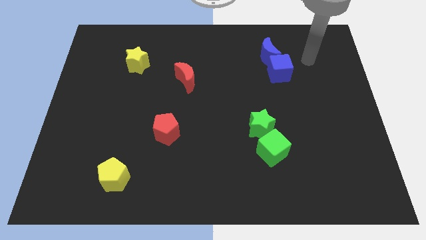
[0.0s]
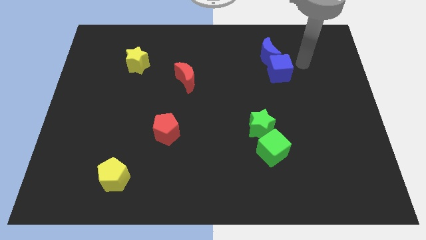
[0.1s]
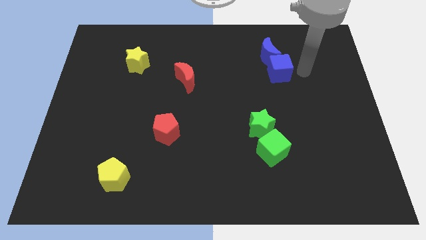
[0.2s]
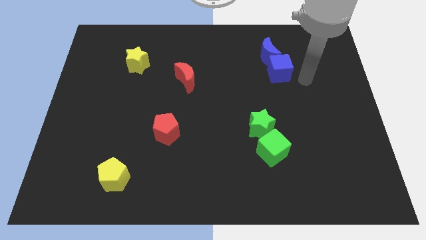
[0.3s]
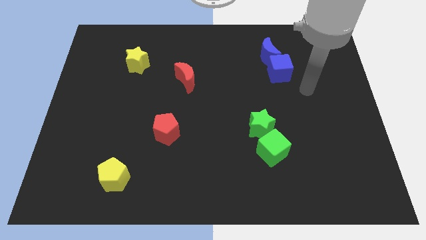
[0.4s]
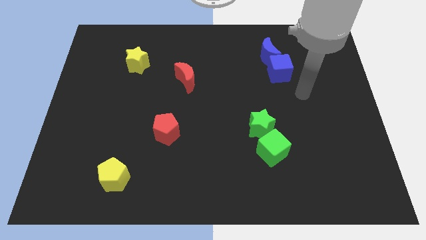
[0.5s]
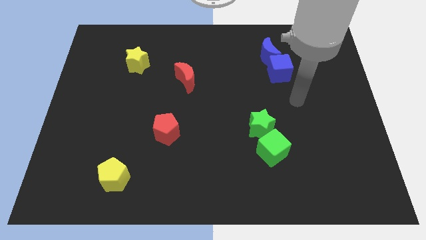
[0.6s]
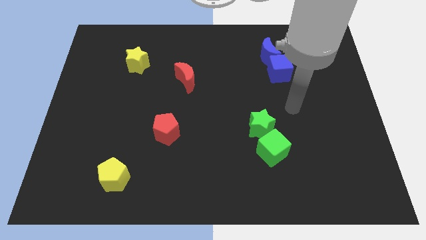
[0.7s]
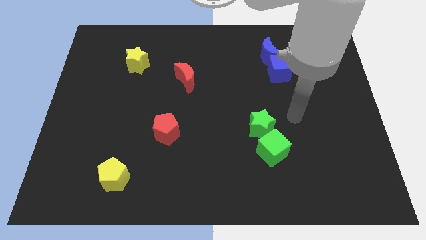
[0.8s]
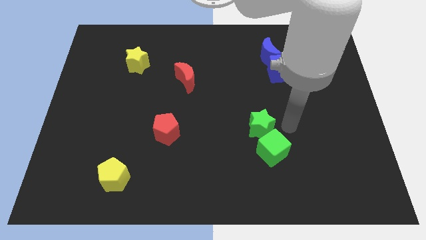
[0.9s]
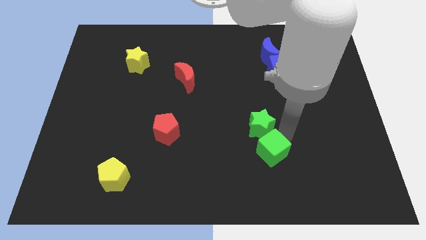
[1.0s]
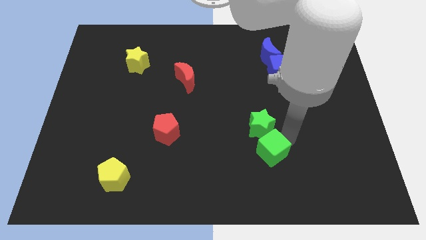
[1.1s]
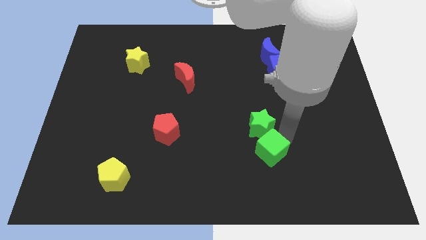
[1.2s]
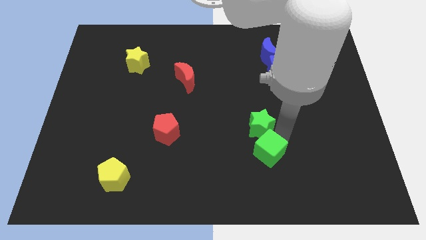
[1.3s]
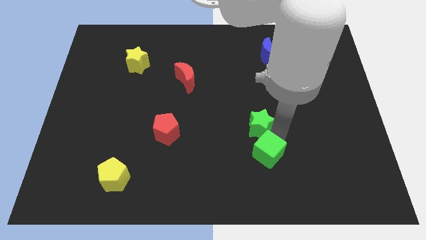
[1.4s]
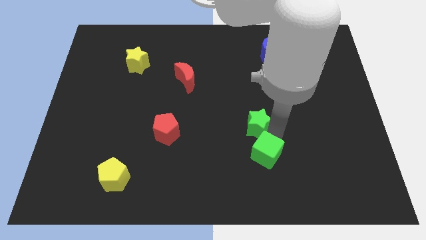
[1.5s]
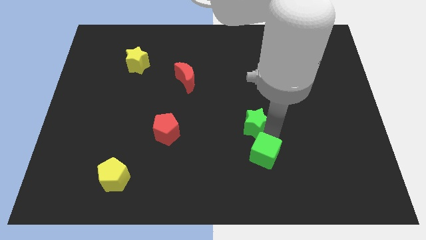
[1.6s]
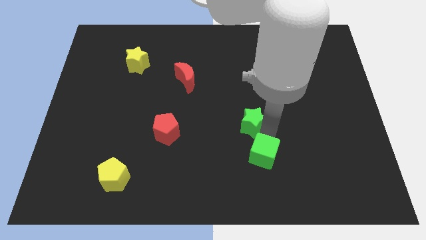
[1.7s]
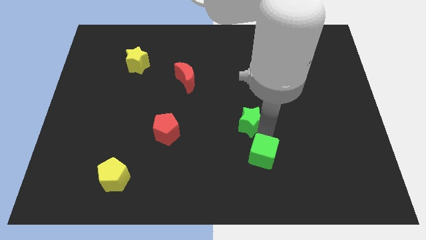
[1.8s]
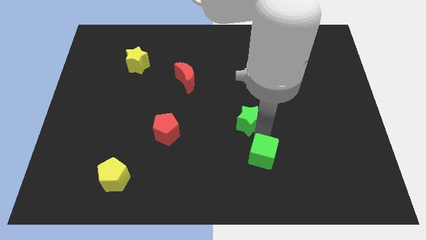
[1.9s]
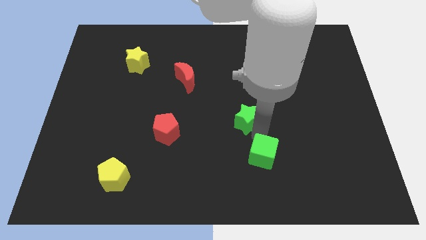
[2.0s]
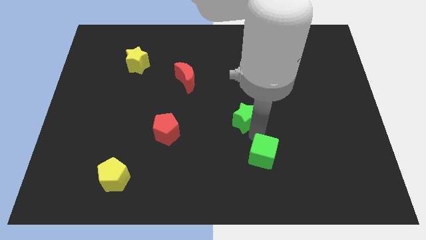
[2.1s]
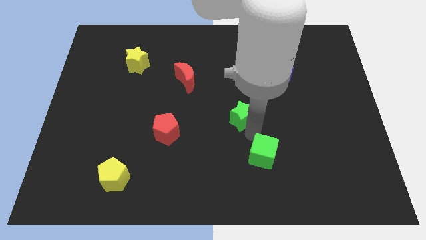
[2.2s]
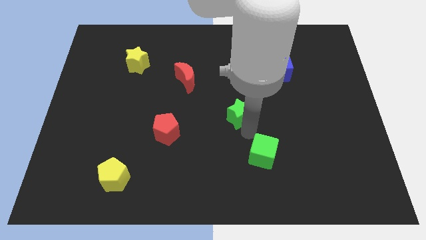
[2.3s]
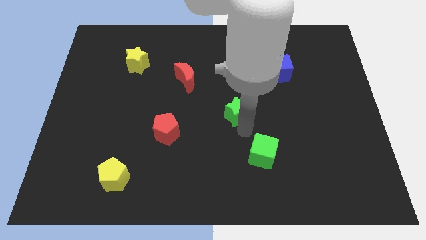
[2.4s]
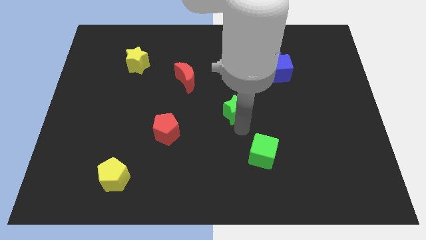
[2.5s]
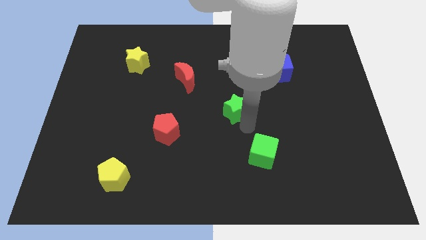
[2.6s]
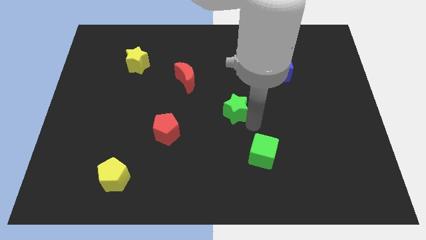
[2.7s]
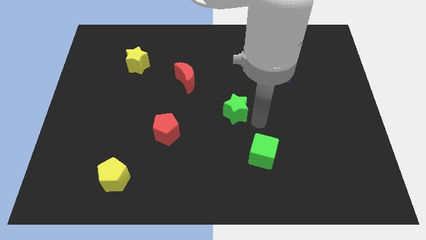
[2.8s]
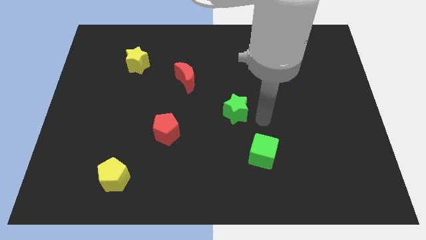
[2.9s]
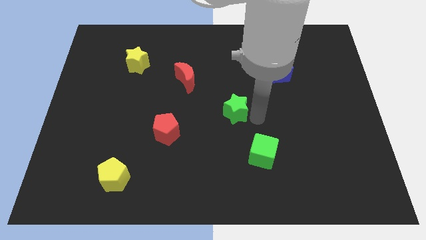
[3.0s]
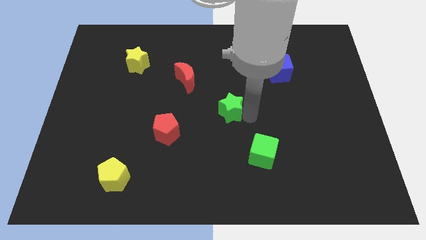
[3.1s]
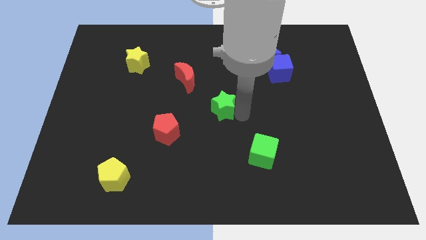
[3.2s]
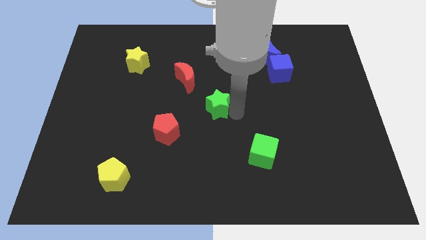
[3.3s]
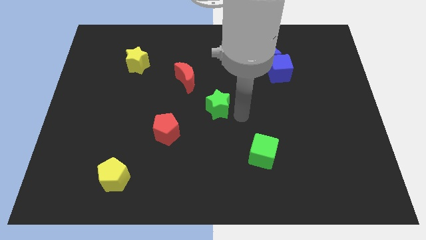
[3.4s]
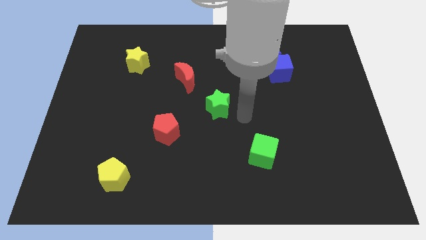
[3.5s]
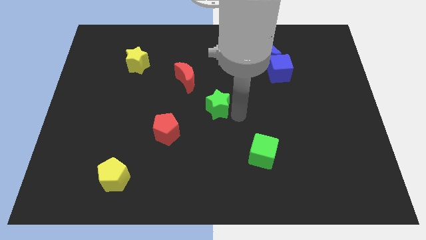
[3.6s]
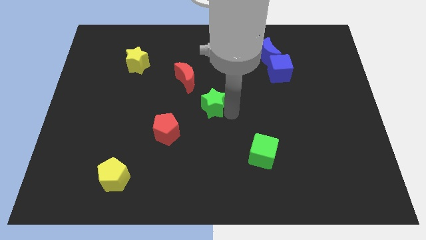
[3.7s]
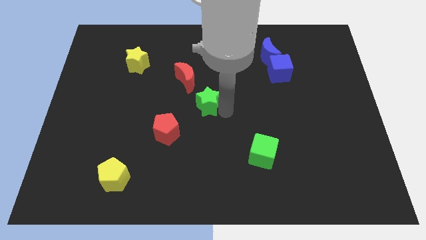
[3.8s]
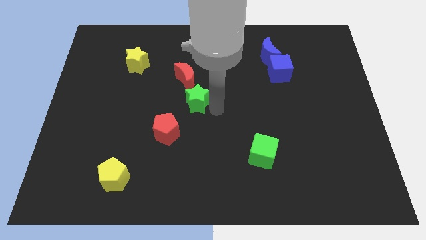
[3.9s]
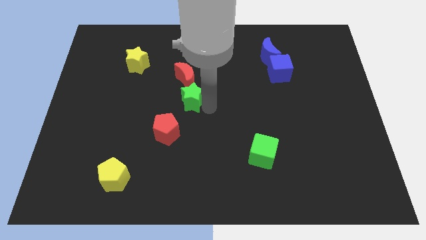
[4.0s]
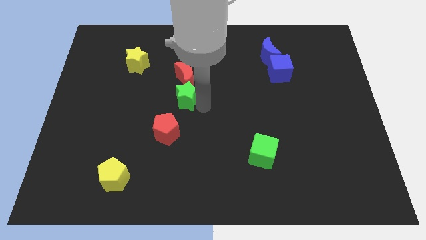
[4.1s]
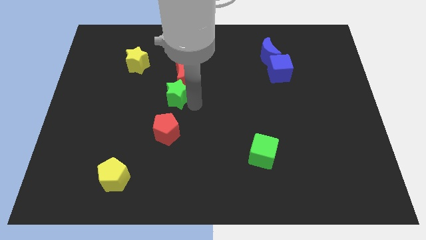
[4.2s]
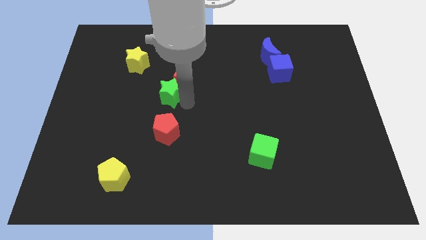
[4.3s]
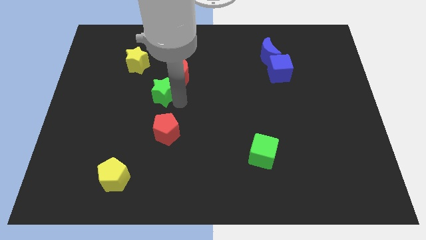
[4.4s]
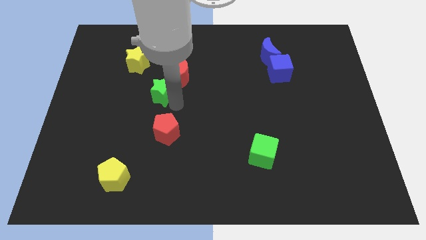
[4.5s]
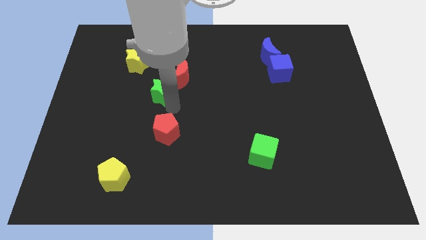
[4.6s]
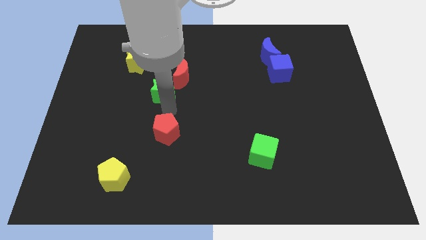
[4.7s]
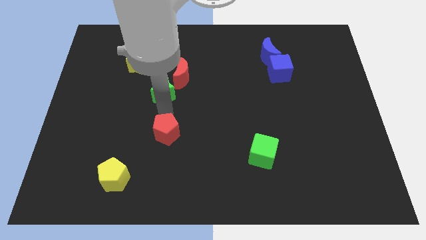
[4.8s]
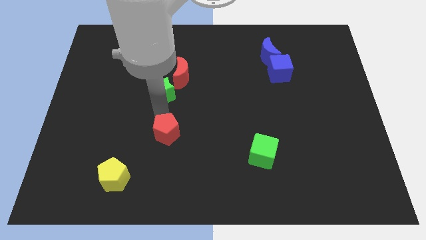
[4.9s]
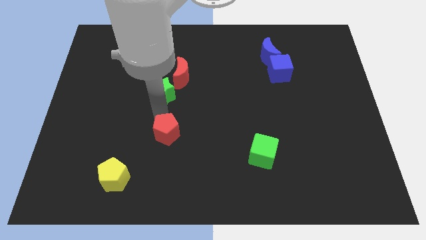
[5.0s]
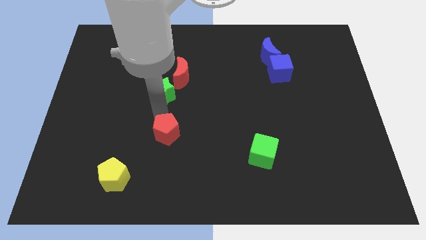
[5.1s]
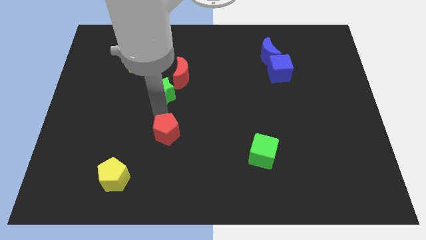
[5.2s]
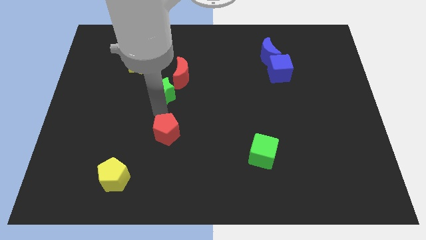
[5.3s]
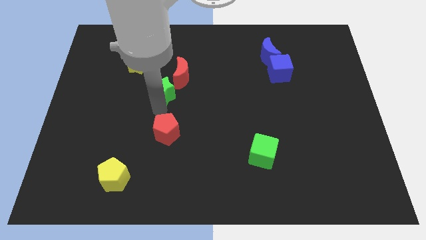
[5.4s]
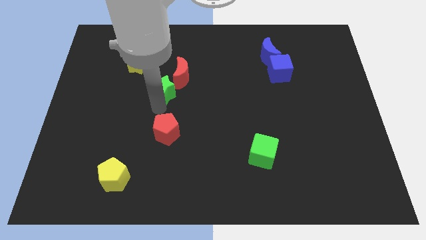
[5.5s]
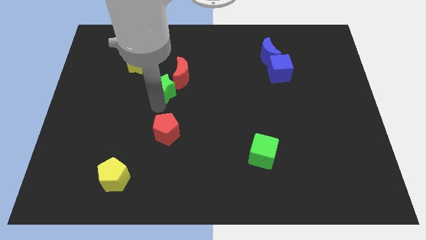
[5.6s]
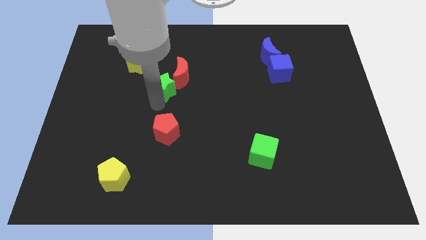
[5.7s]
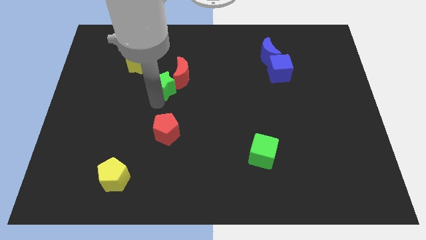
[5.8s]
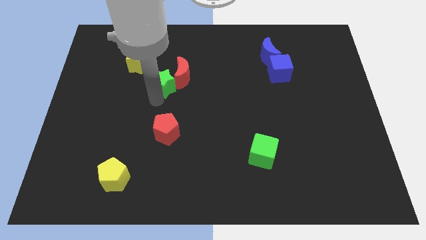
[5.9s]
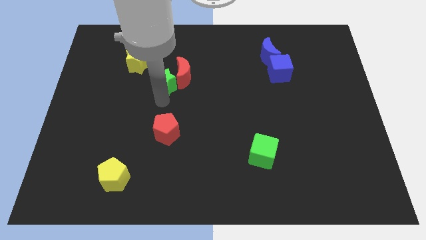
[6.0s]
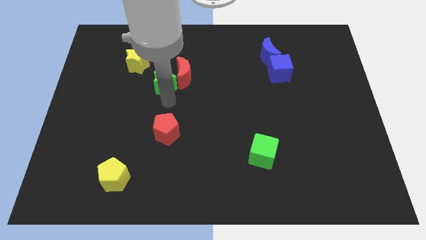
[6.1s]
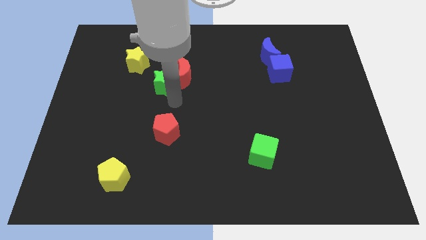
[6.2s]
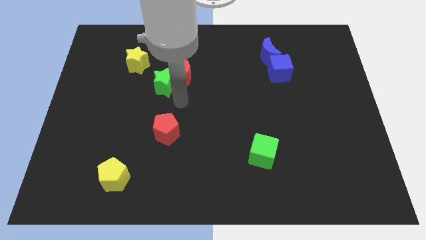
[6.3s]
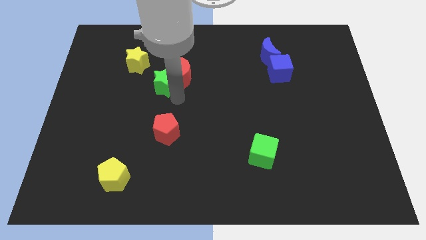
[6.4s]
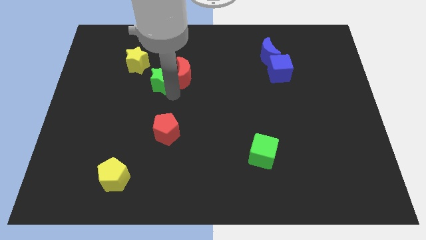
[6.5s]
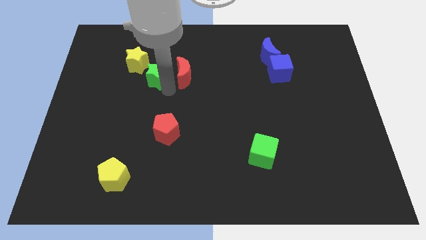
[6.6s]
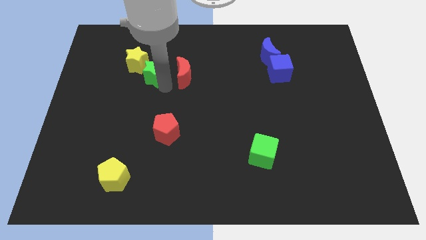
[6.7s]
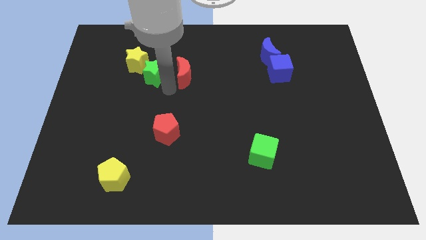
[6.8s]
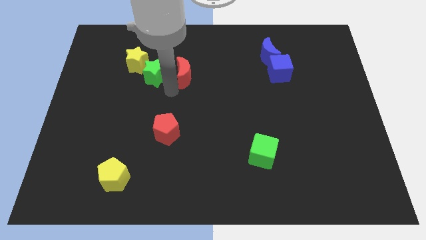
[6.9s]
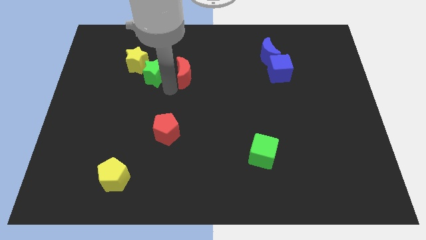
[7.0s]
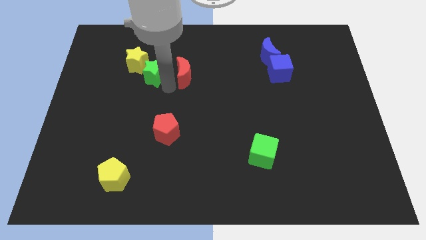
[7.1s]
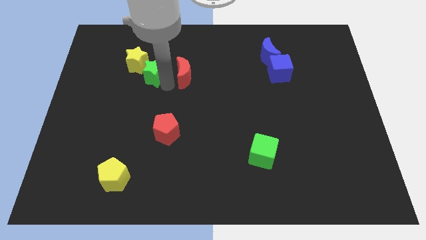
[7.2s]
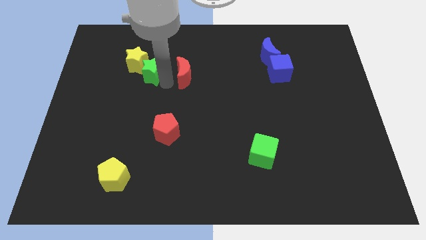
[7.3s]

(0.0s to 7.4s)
move the green star towards the yellow star
